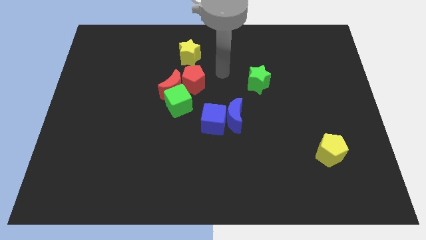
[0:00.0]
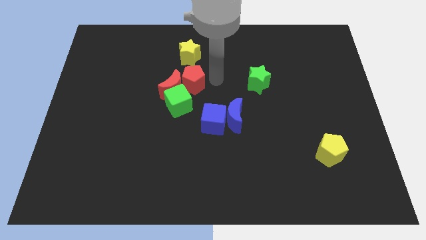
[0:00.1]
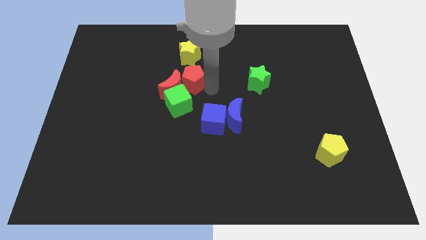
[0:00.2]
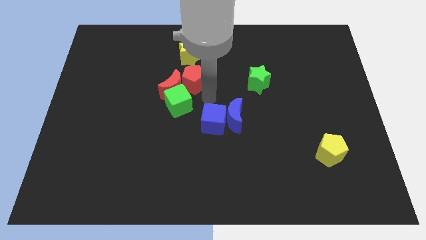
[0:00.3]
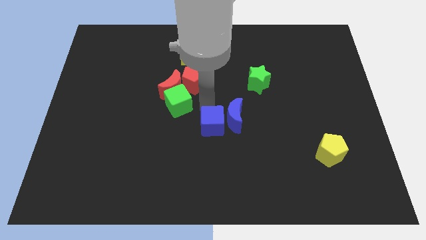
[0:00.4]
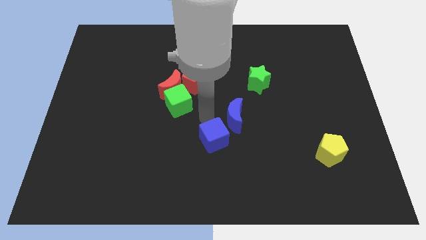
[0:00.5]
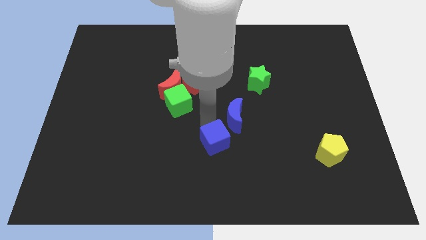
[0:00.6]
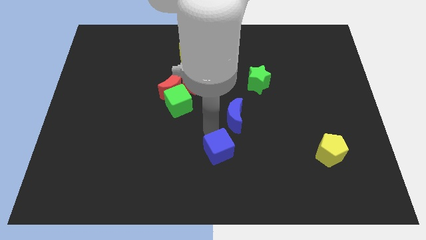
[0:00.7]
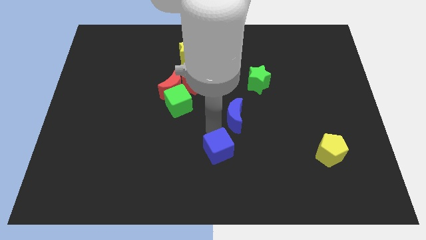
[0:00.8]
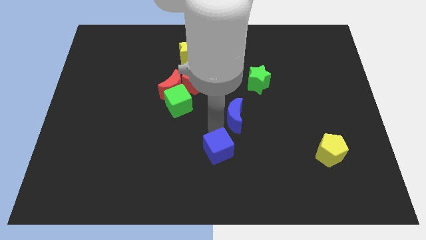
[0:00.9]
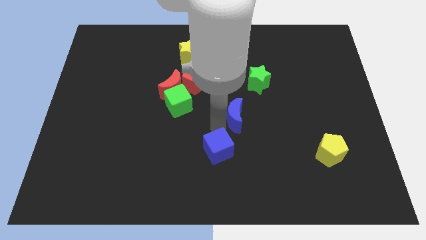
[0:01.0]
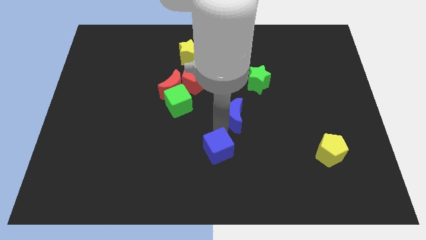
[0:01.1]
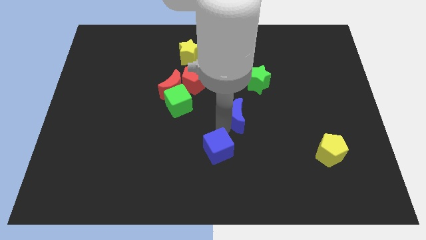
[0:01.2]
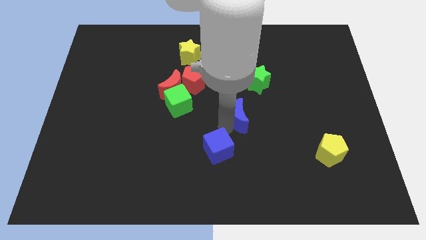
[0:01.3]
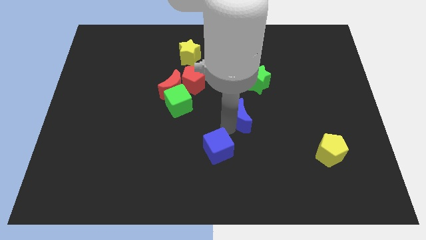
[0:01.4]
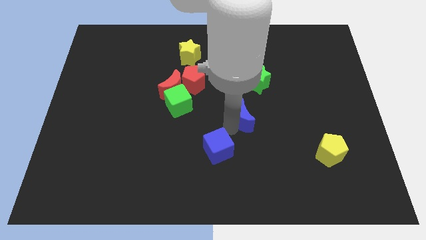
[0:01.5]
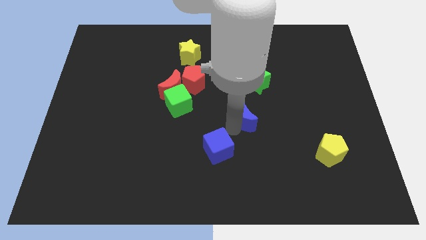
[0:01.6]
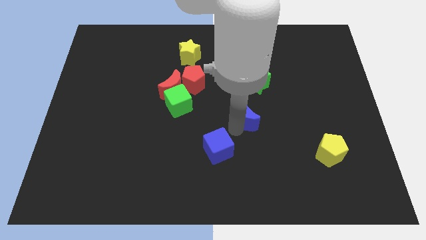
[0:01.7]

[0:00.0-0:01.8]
move the blue moon away from the blue cube

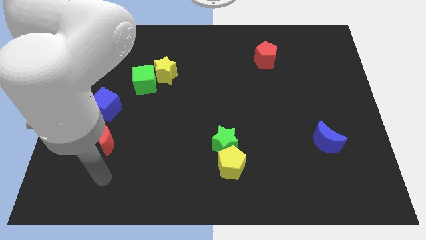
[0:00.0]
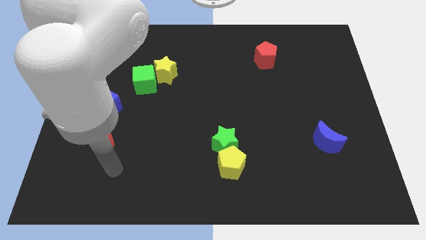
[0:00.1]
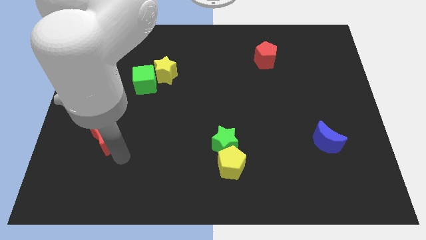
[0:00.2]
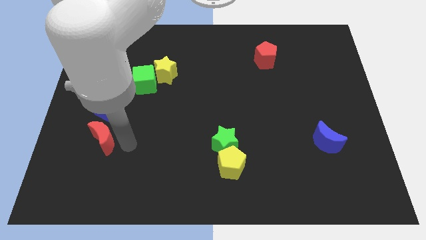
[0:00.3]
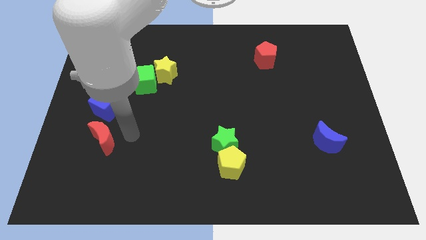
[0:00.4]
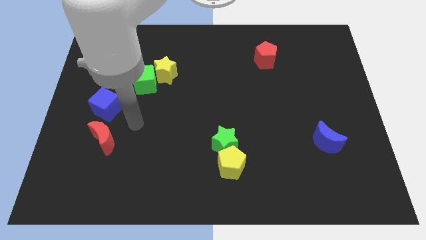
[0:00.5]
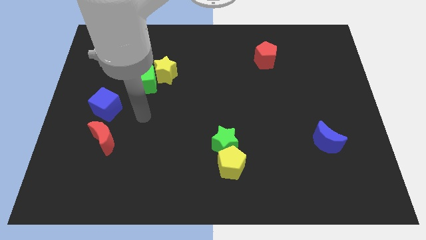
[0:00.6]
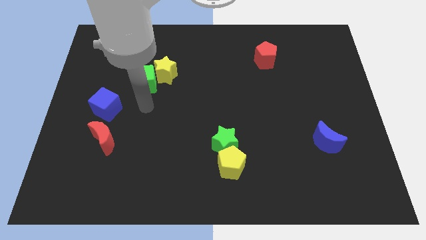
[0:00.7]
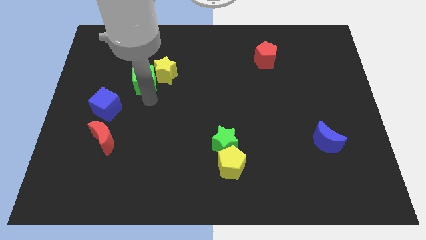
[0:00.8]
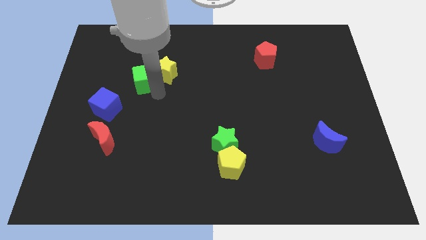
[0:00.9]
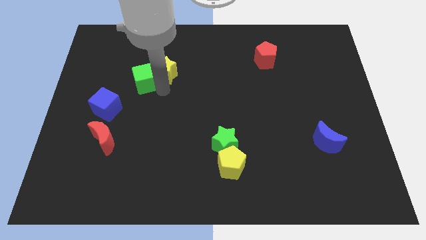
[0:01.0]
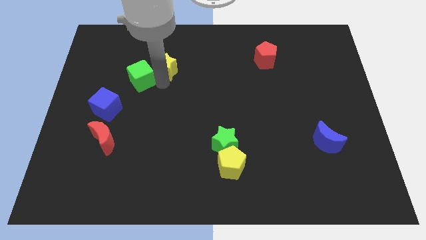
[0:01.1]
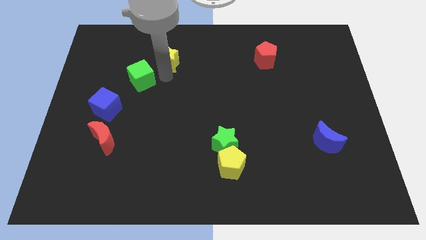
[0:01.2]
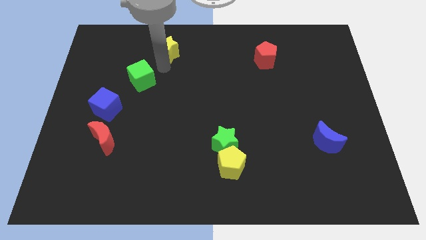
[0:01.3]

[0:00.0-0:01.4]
move the green cube away from the yellow star

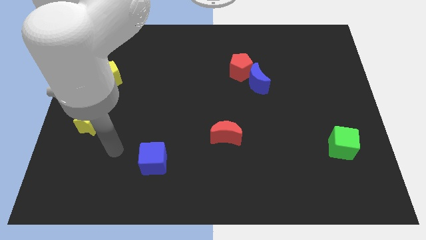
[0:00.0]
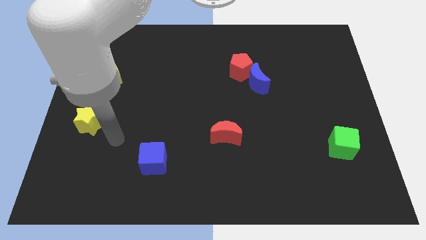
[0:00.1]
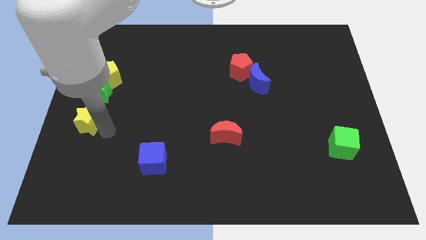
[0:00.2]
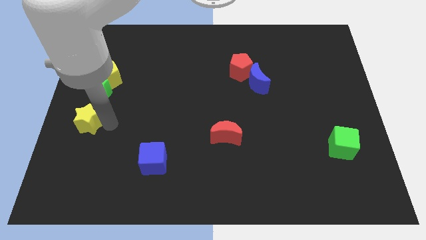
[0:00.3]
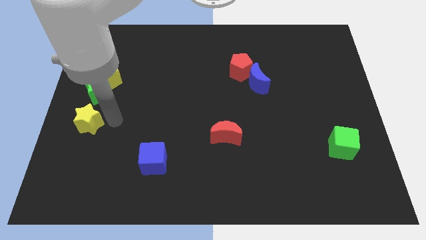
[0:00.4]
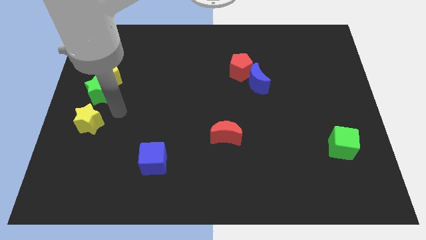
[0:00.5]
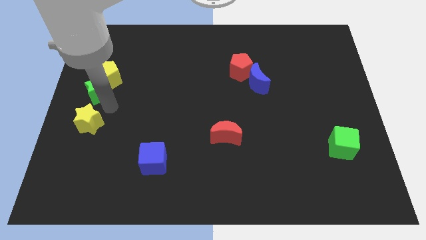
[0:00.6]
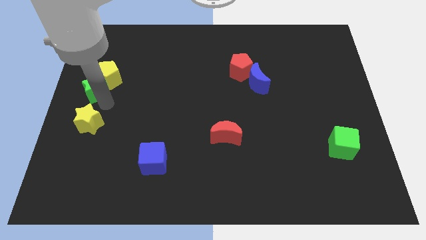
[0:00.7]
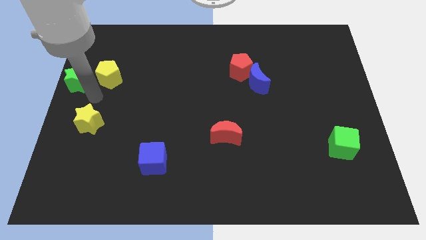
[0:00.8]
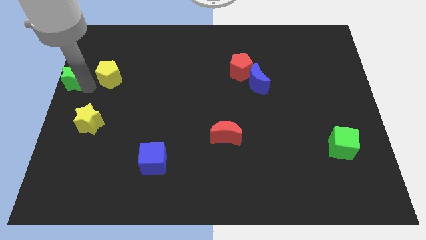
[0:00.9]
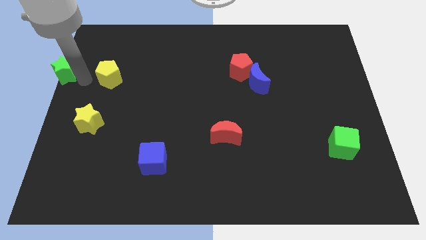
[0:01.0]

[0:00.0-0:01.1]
move the yellow pentagon away from the green star

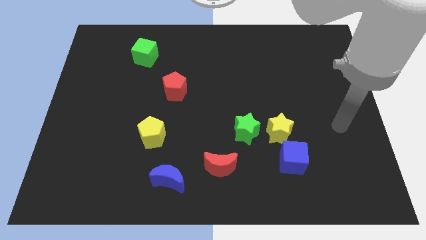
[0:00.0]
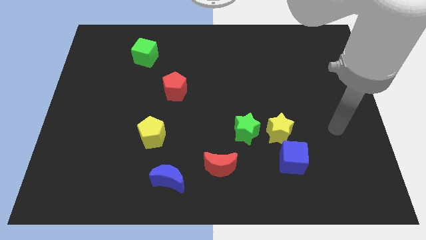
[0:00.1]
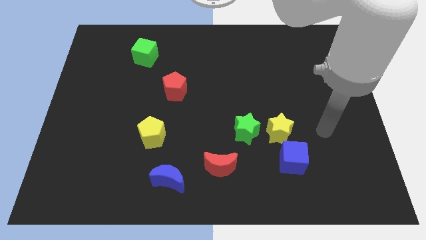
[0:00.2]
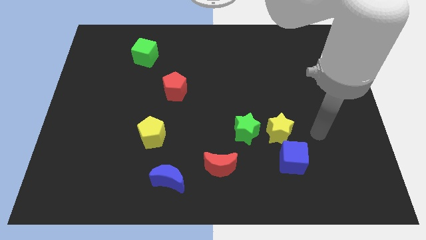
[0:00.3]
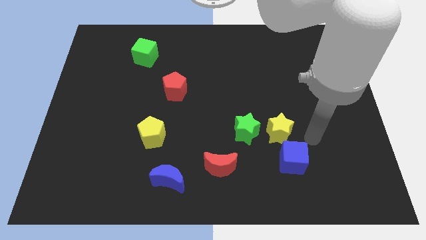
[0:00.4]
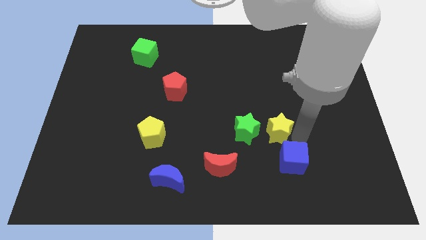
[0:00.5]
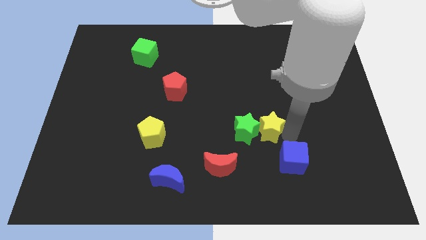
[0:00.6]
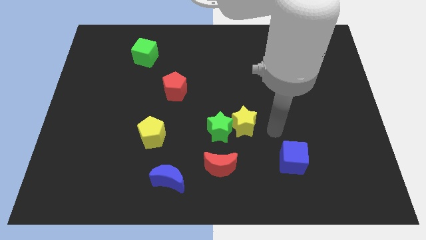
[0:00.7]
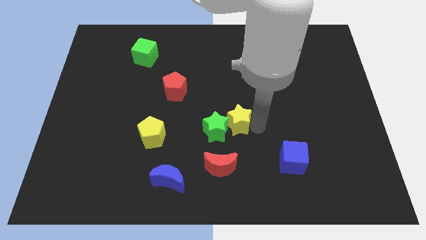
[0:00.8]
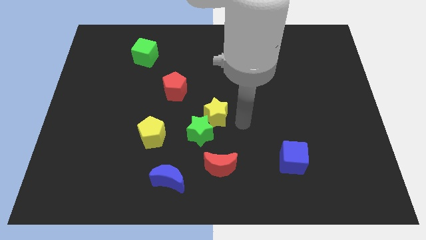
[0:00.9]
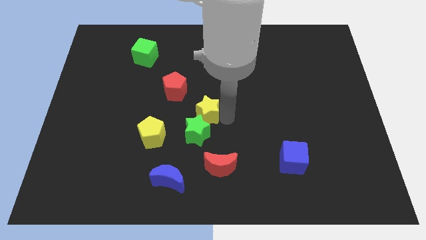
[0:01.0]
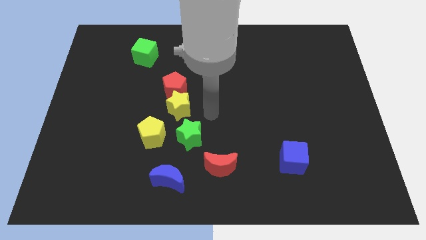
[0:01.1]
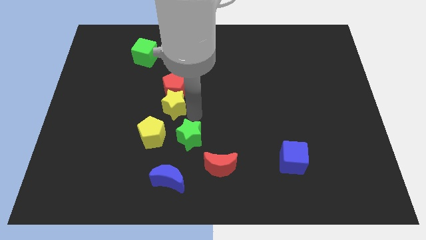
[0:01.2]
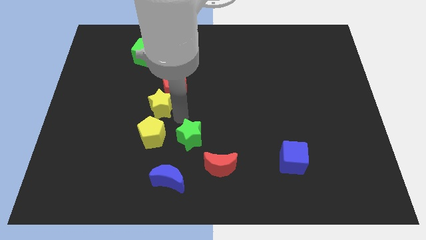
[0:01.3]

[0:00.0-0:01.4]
pull the green star apart from the yellow star

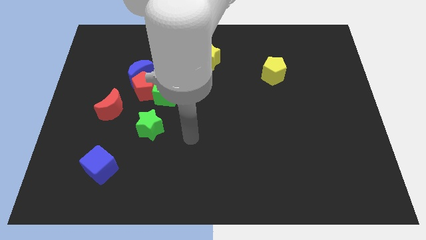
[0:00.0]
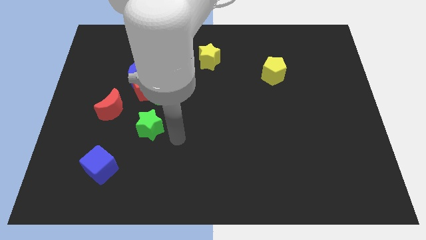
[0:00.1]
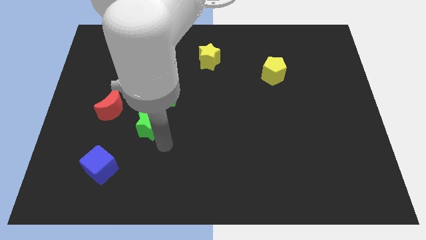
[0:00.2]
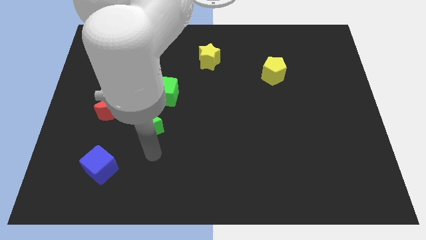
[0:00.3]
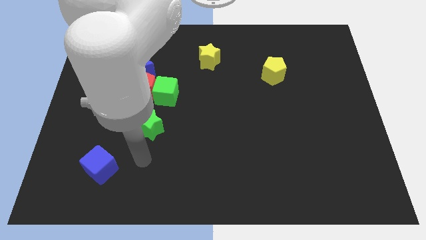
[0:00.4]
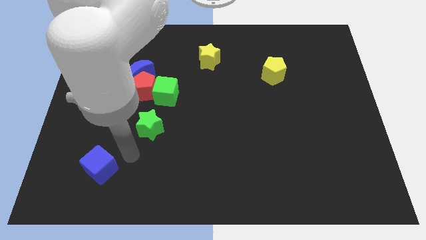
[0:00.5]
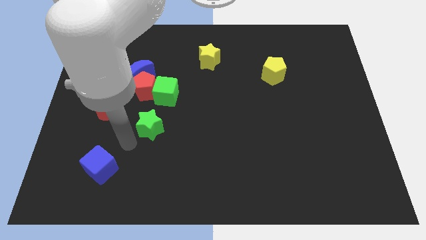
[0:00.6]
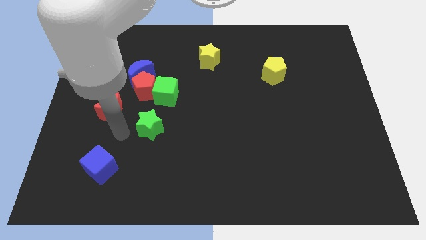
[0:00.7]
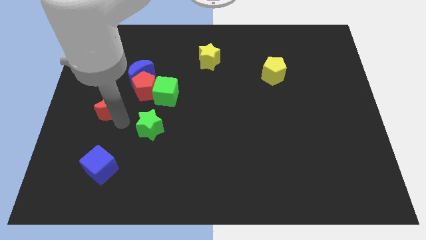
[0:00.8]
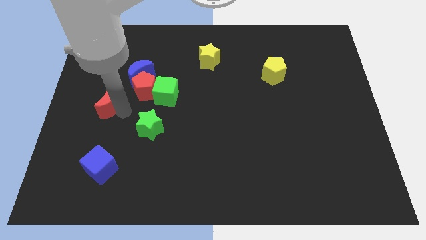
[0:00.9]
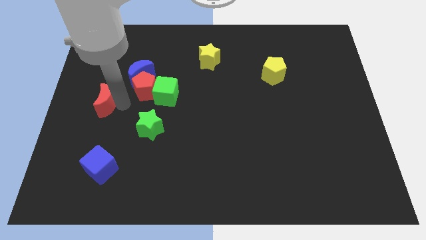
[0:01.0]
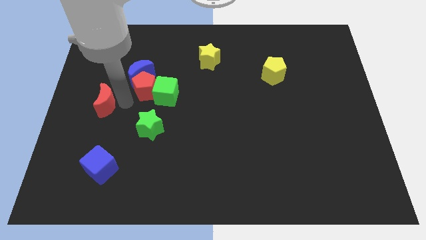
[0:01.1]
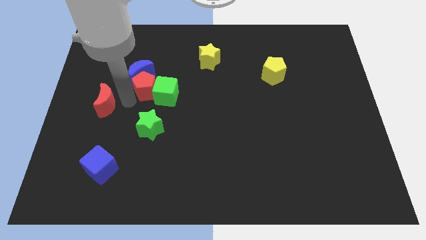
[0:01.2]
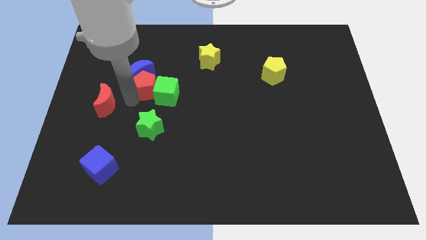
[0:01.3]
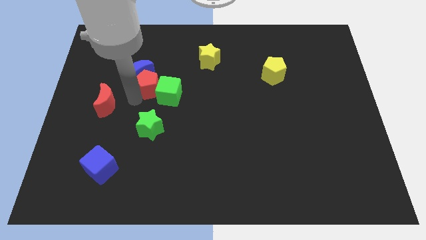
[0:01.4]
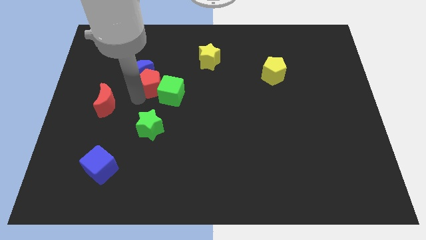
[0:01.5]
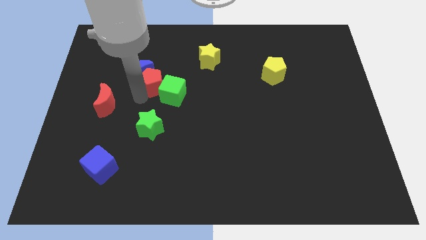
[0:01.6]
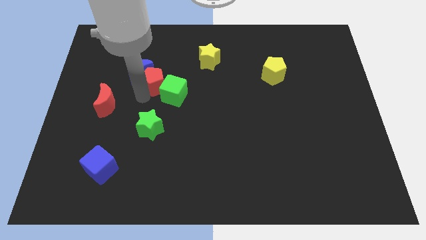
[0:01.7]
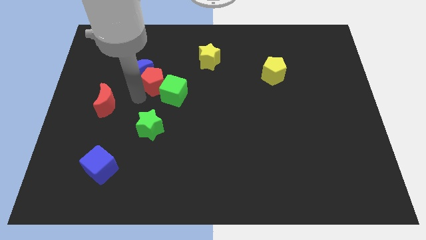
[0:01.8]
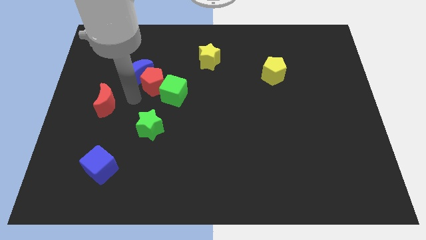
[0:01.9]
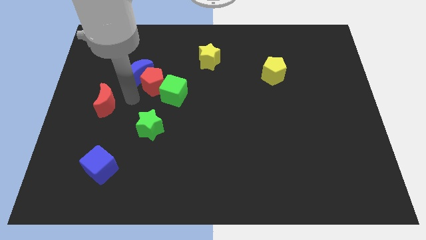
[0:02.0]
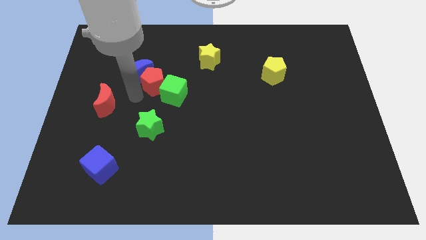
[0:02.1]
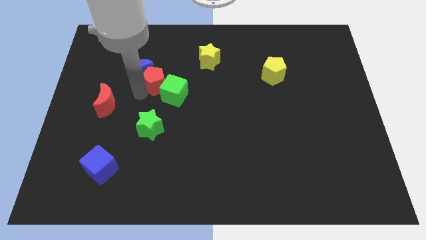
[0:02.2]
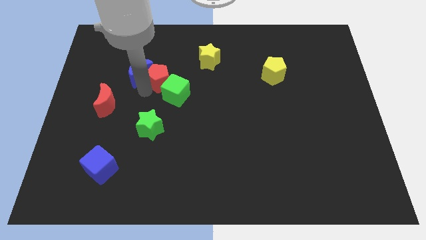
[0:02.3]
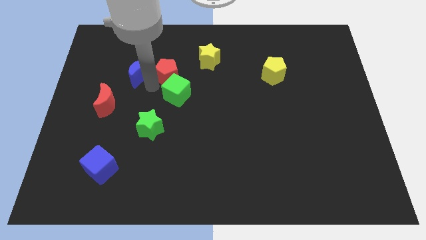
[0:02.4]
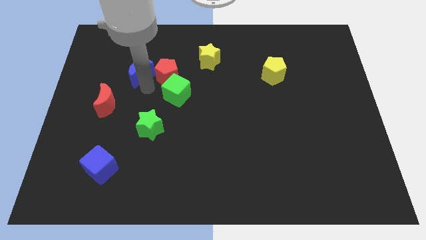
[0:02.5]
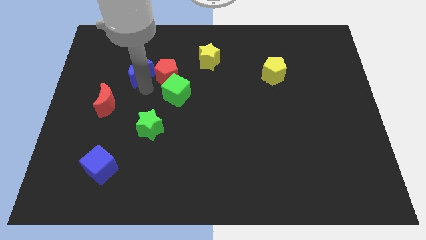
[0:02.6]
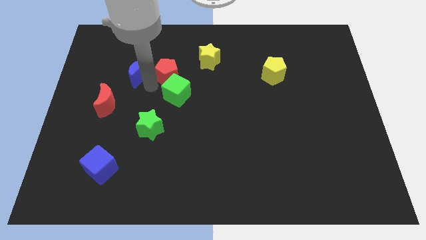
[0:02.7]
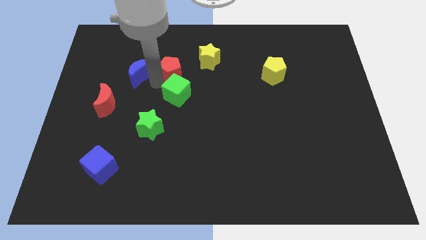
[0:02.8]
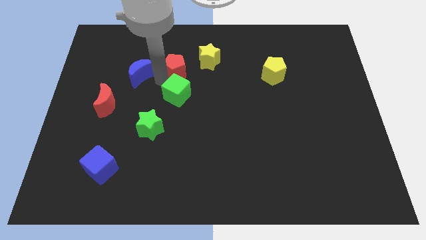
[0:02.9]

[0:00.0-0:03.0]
separate the red pentagon from the blue moon, green cube, and red moon

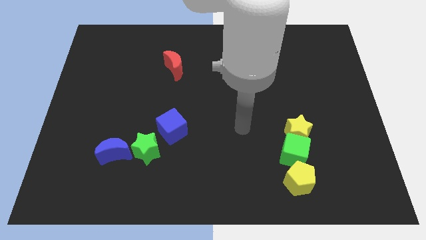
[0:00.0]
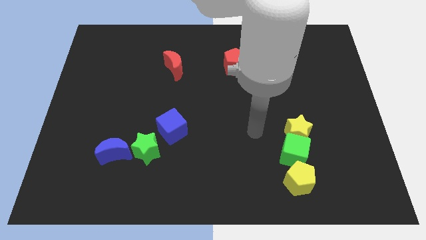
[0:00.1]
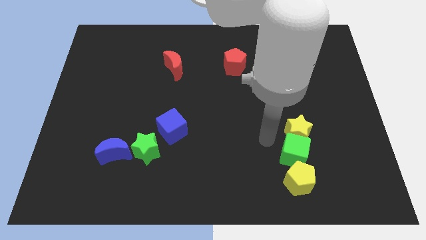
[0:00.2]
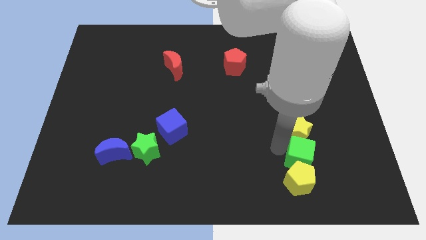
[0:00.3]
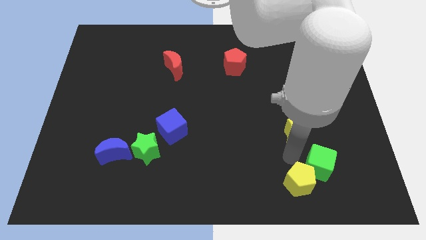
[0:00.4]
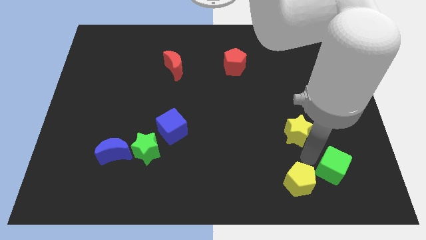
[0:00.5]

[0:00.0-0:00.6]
move the yellow star away from the green cube
